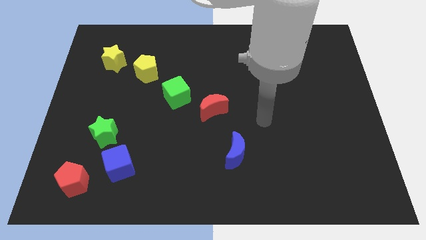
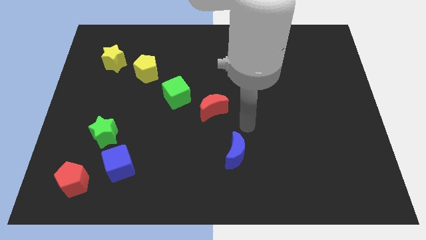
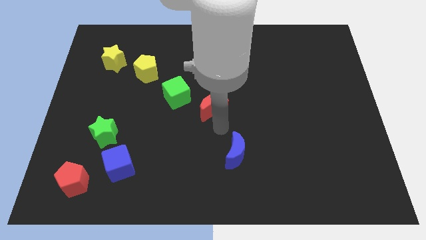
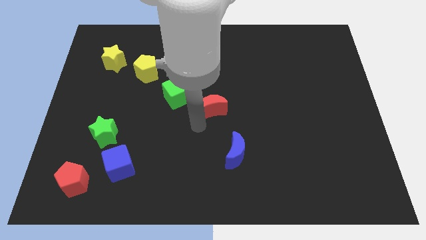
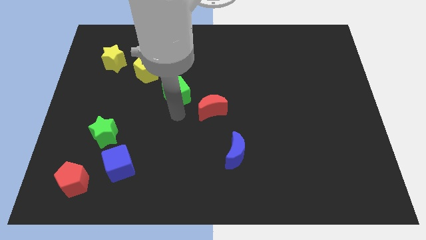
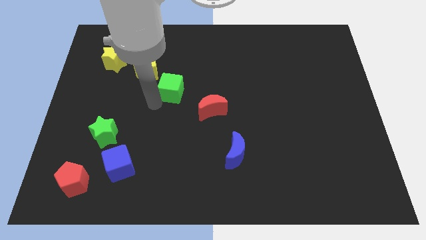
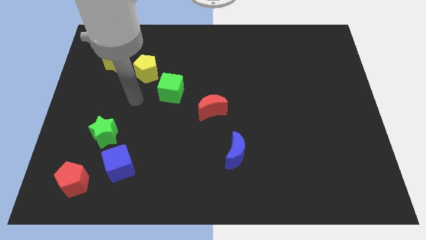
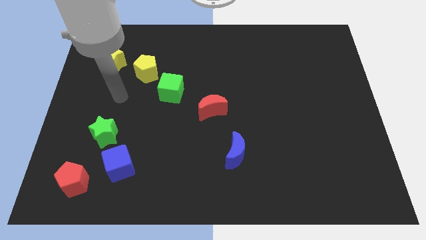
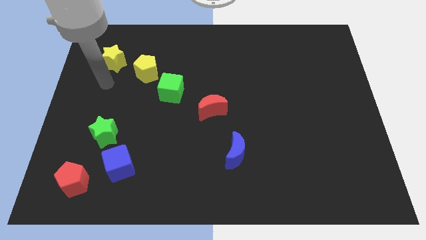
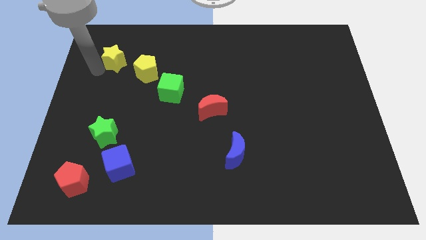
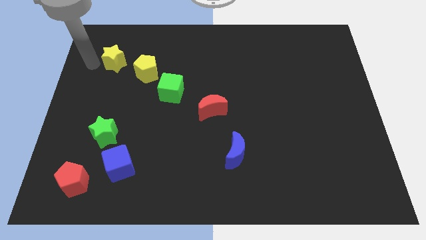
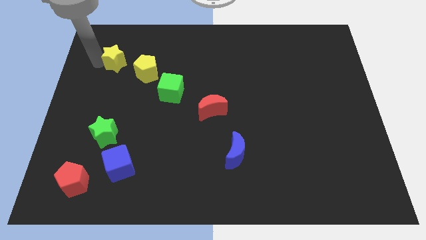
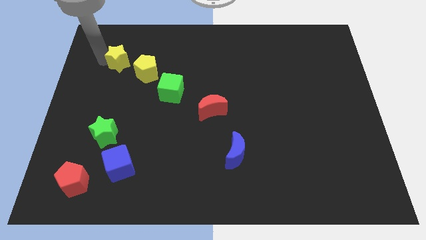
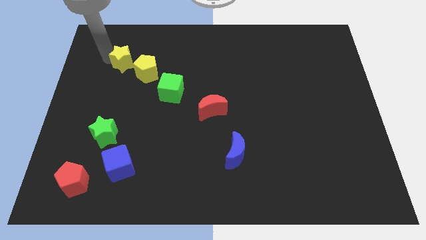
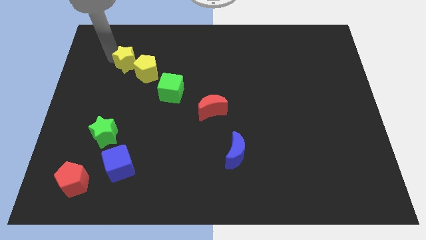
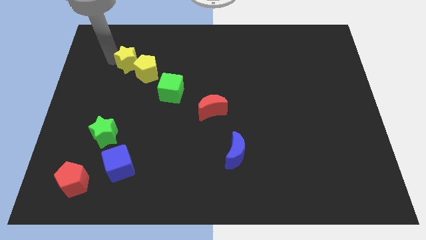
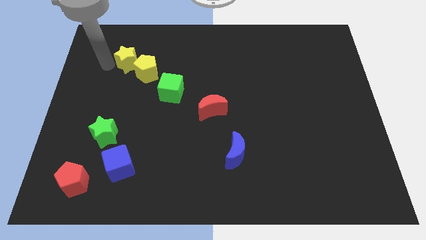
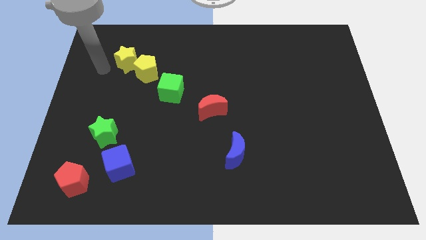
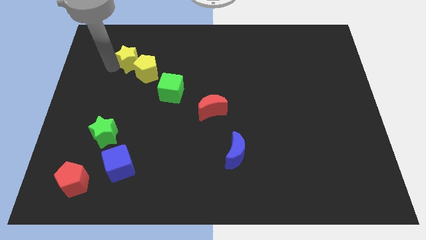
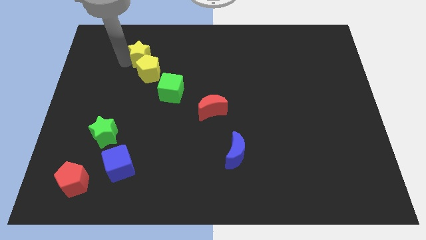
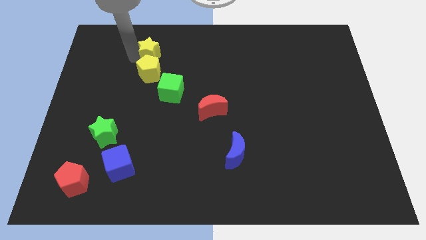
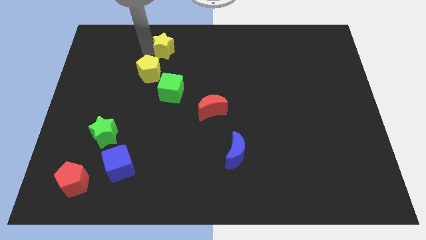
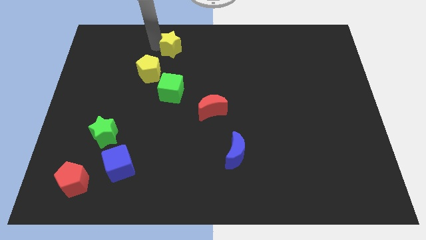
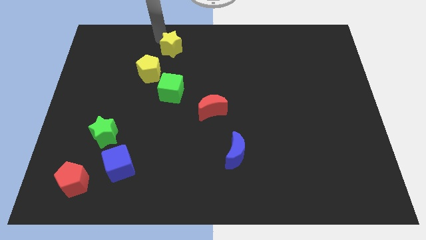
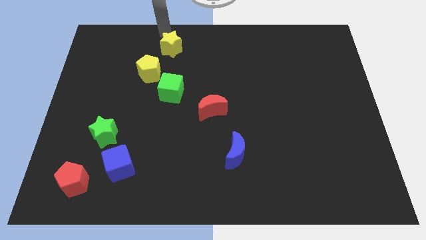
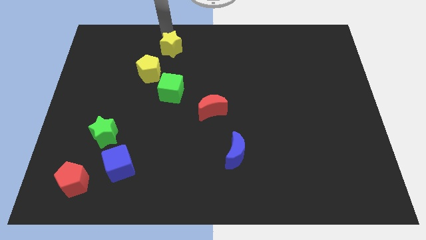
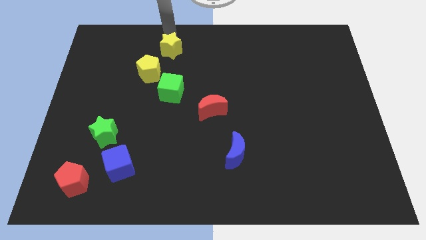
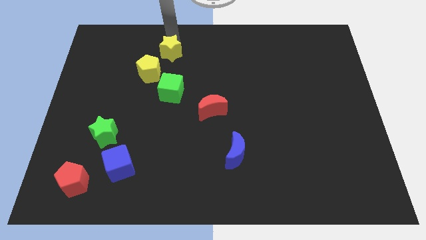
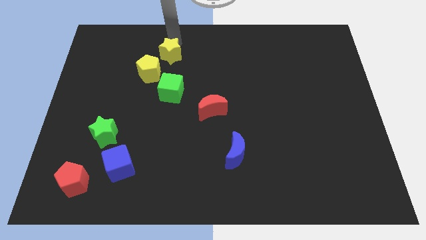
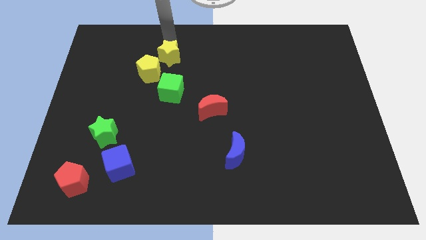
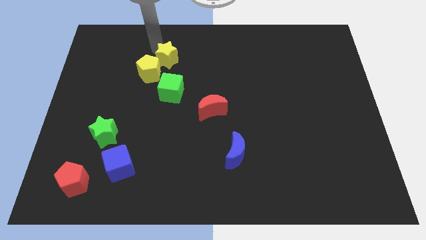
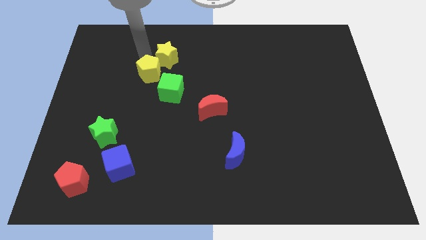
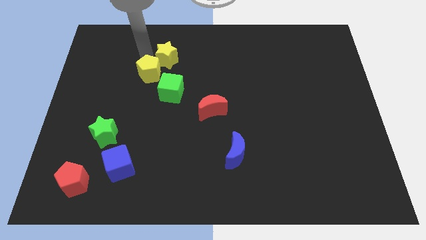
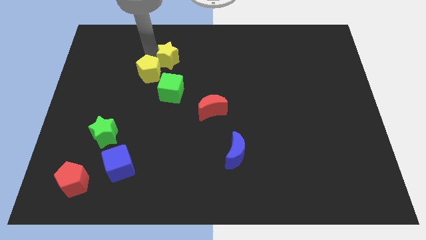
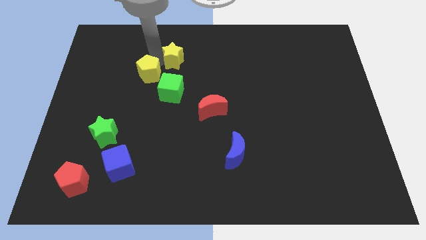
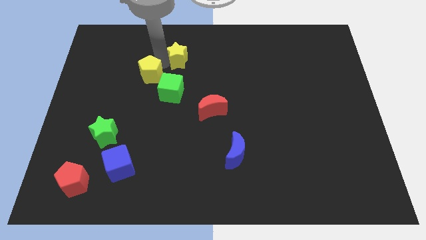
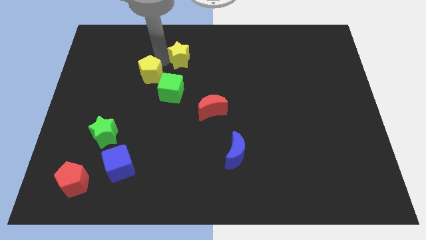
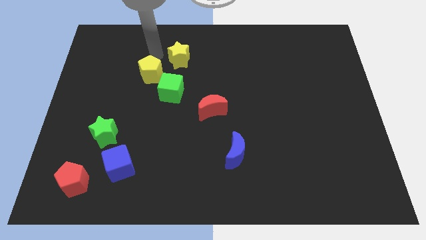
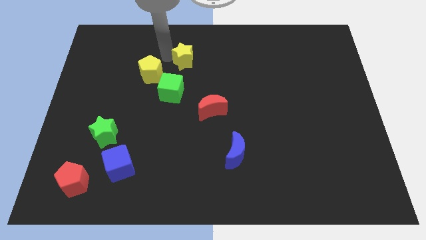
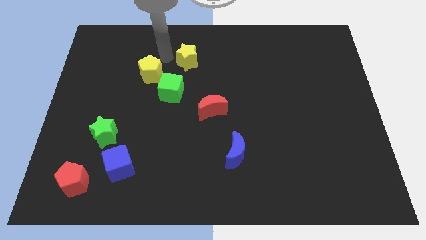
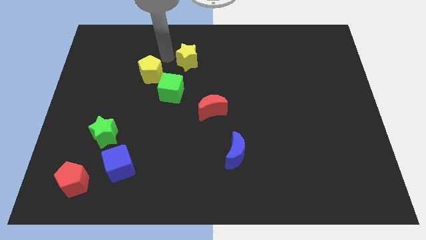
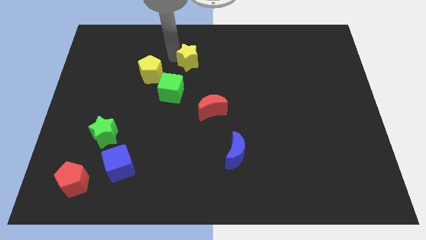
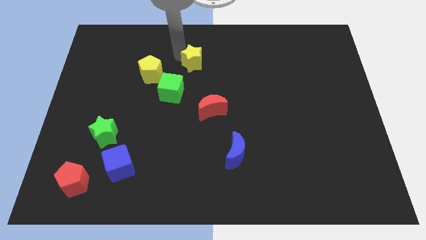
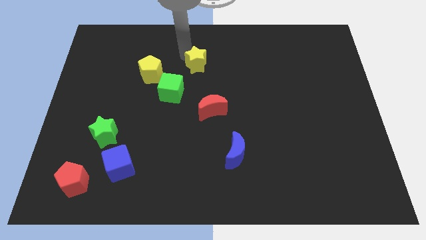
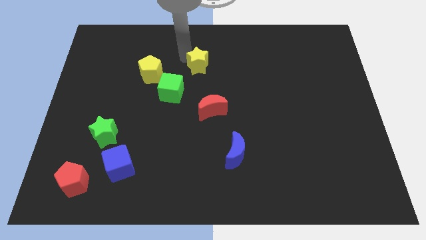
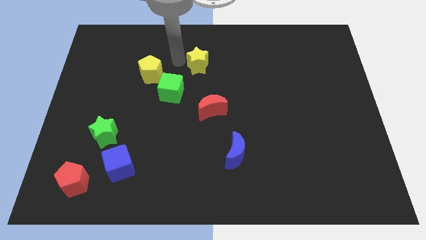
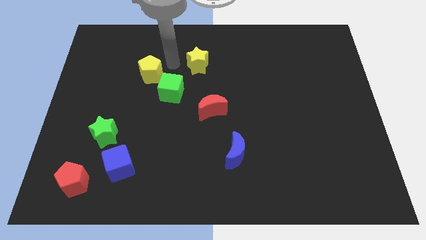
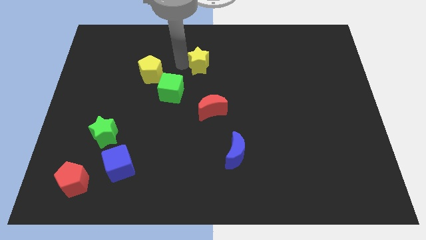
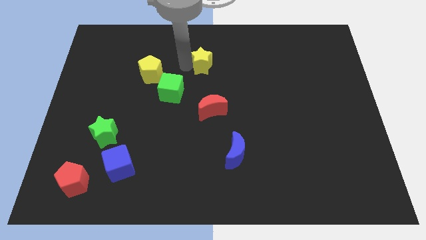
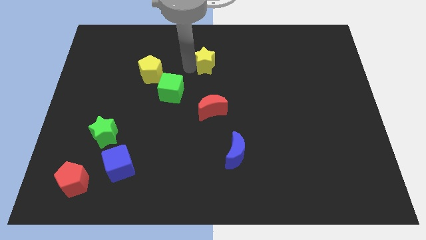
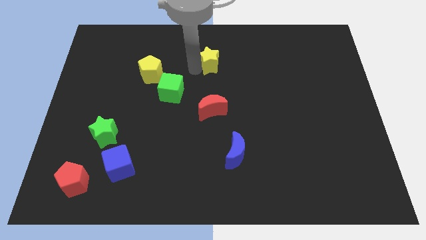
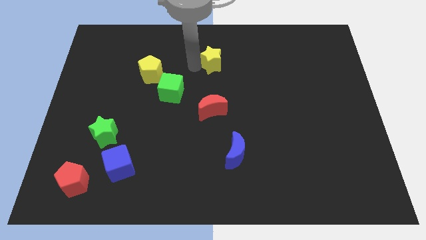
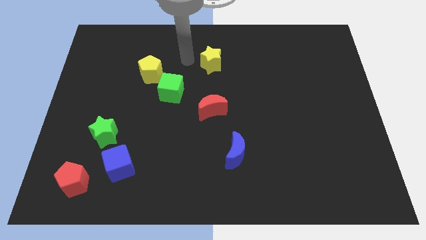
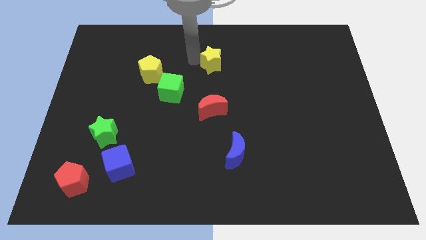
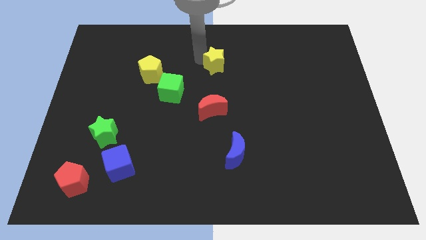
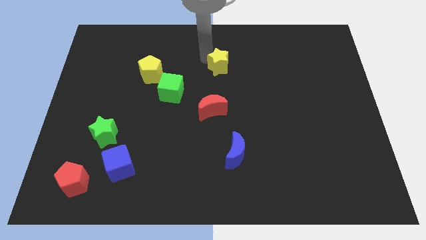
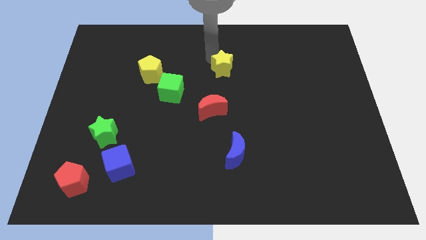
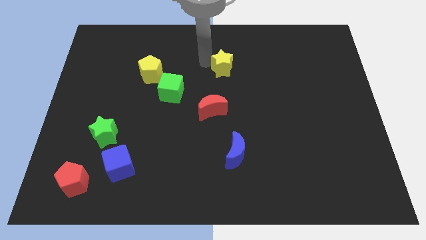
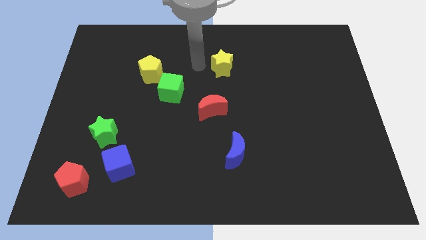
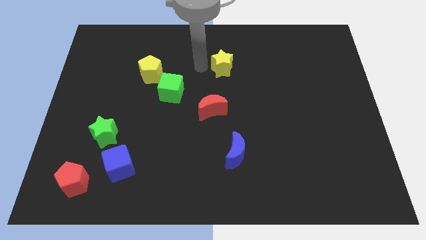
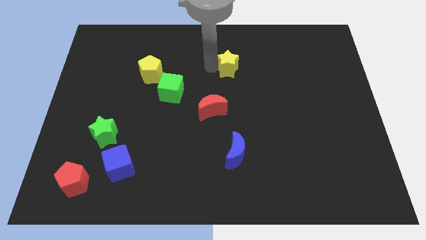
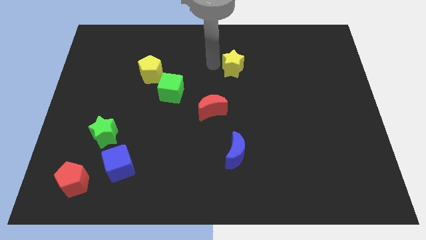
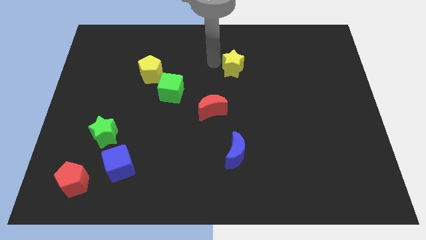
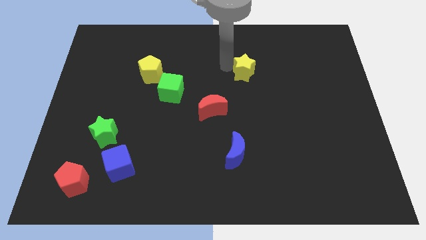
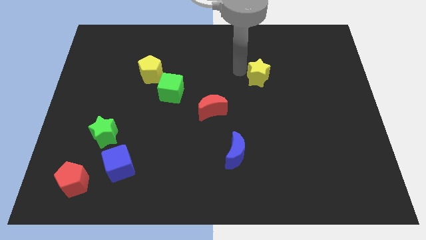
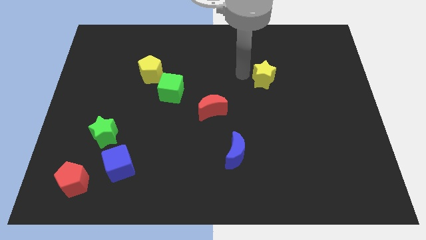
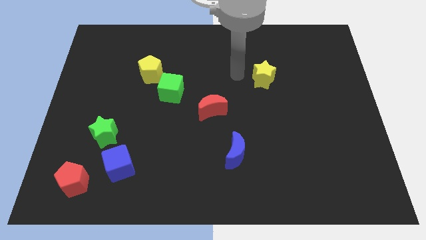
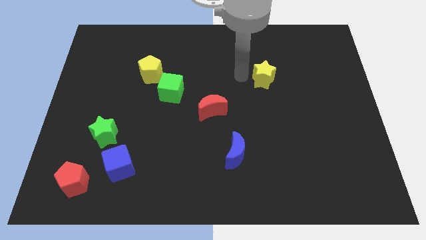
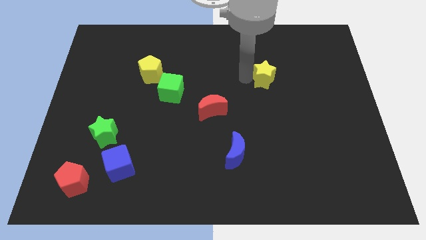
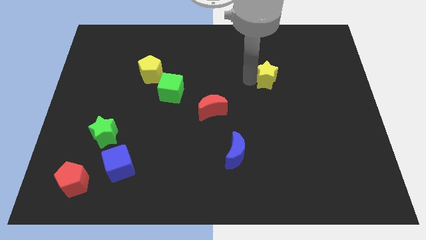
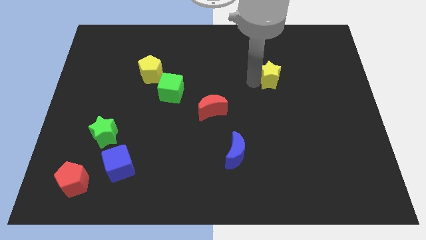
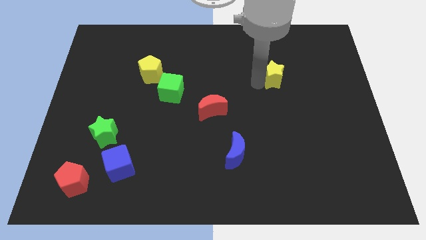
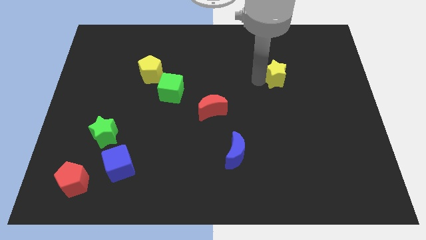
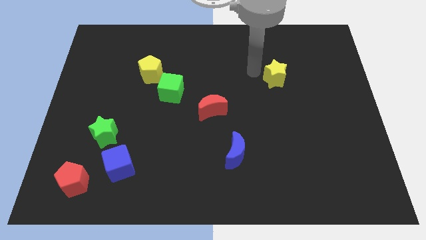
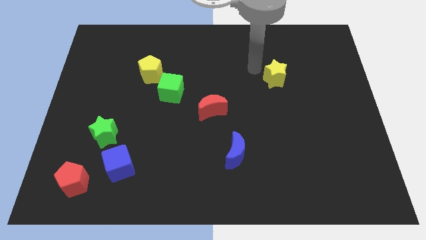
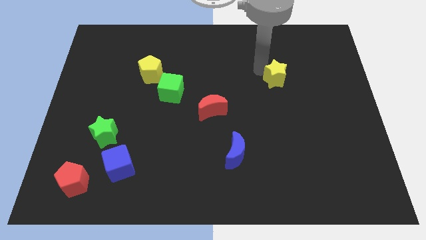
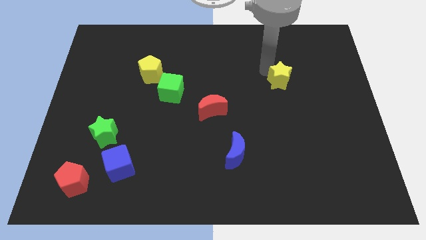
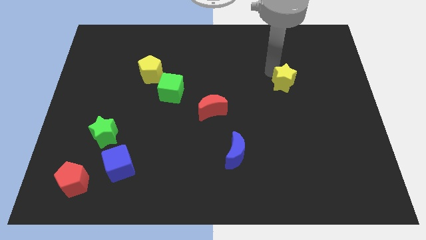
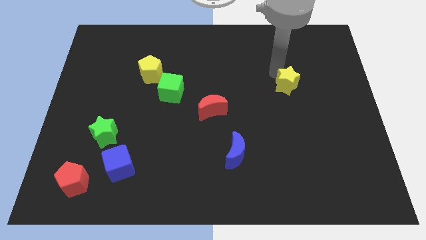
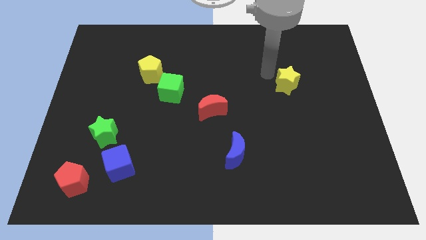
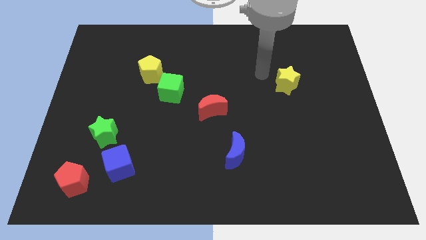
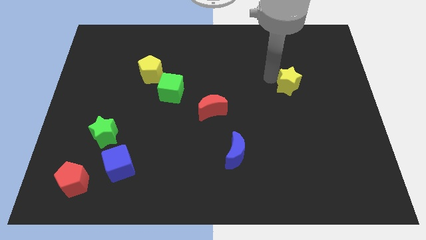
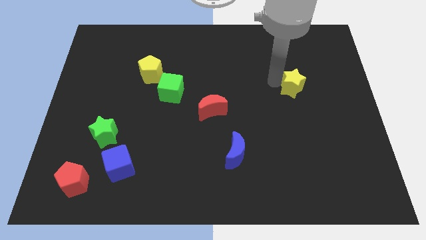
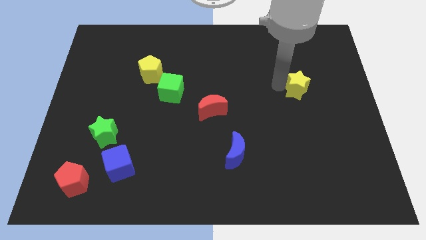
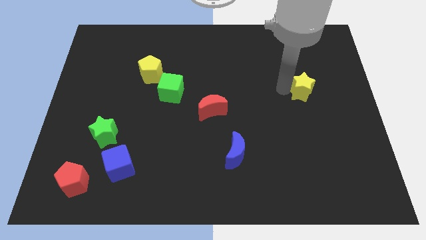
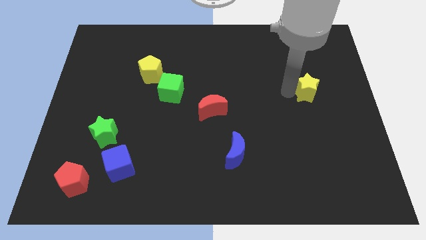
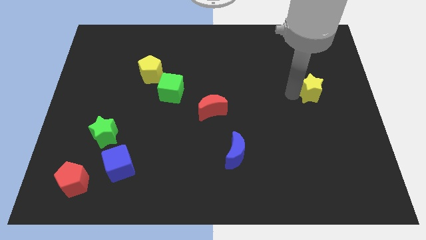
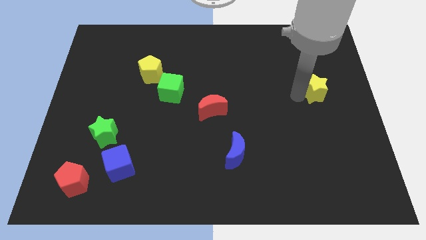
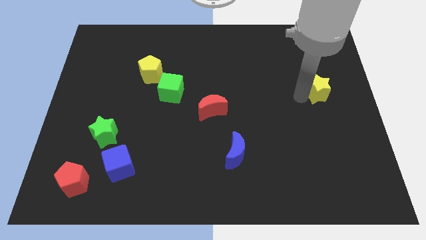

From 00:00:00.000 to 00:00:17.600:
slide the yellow star to the right side of the board
